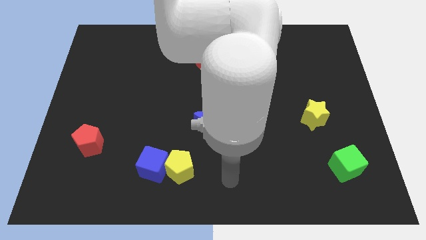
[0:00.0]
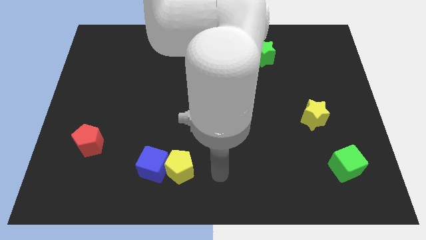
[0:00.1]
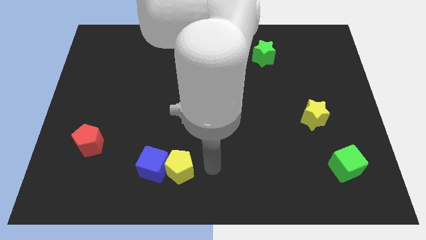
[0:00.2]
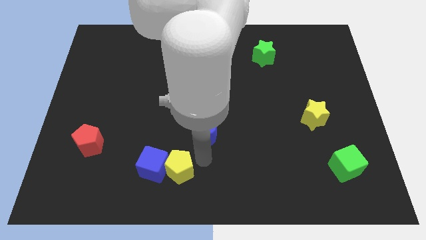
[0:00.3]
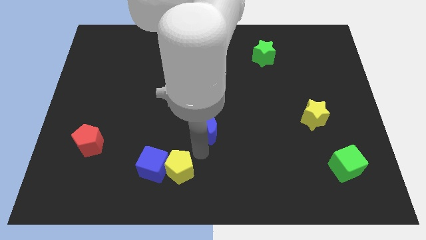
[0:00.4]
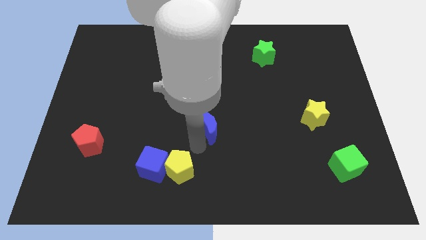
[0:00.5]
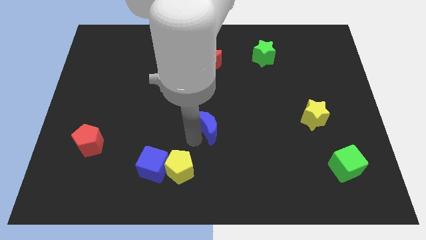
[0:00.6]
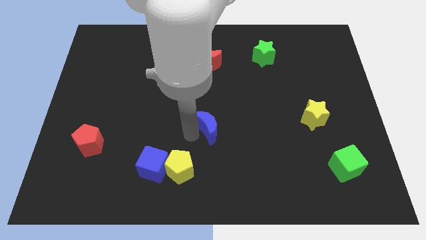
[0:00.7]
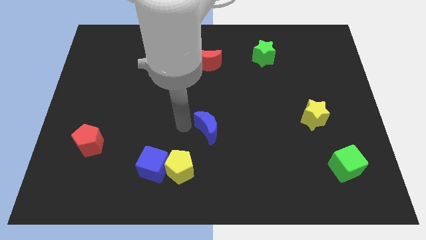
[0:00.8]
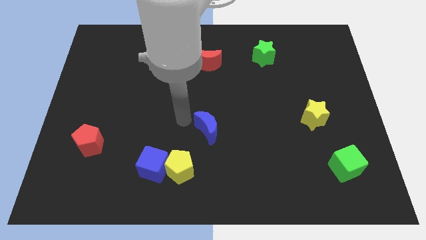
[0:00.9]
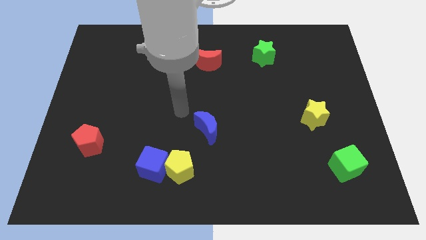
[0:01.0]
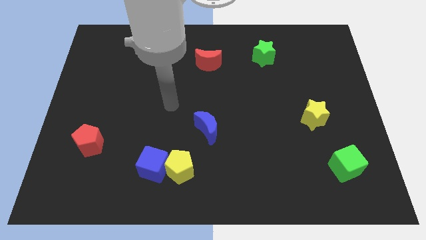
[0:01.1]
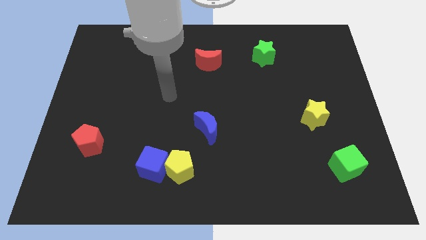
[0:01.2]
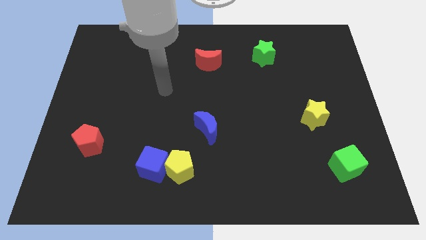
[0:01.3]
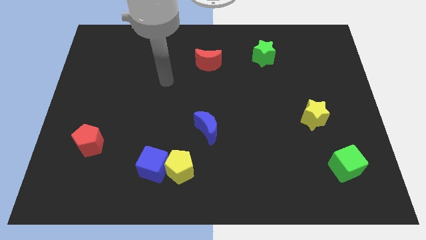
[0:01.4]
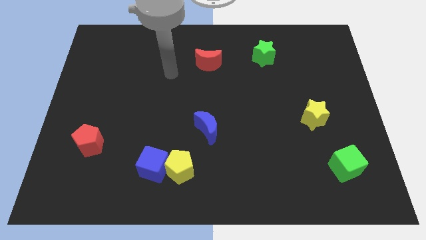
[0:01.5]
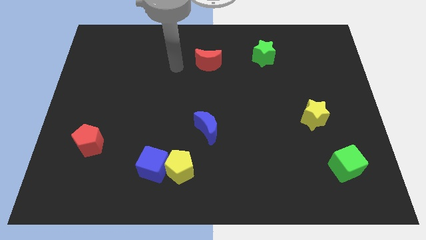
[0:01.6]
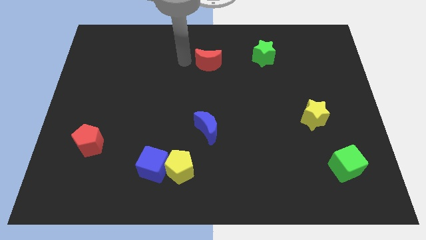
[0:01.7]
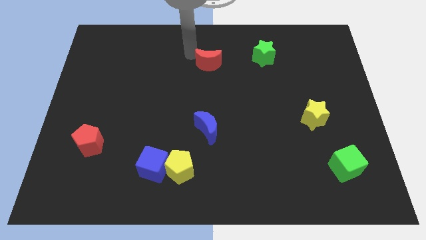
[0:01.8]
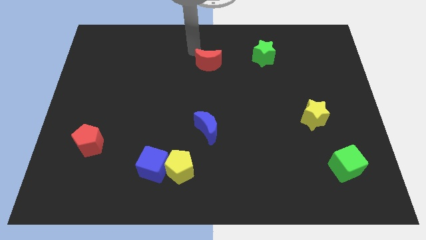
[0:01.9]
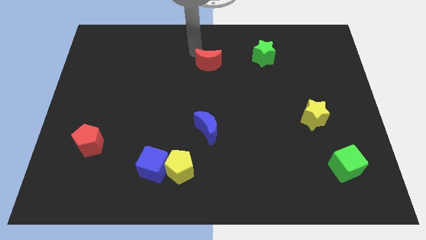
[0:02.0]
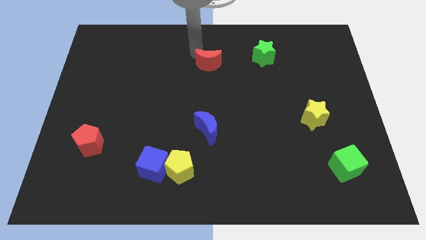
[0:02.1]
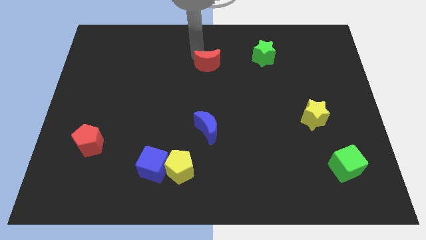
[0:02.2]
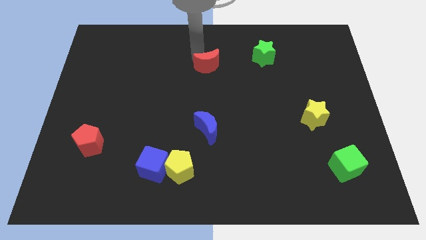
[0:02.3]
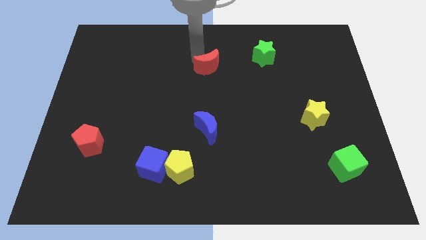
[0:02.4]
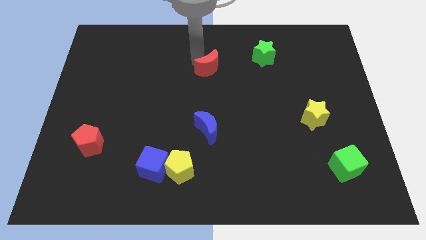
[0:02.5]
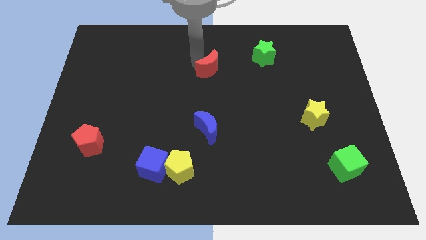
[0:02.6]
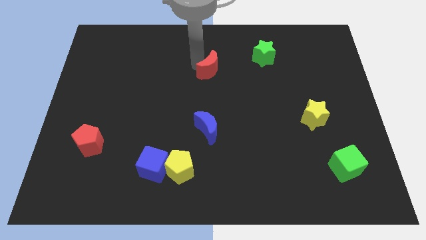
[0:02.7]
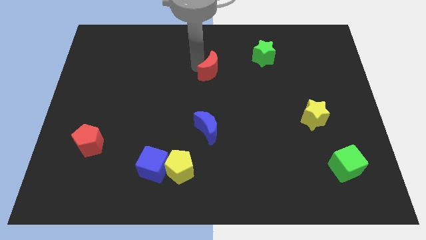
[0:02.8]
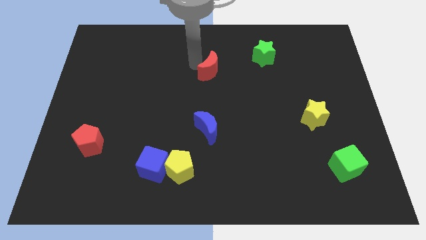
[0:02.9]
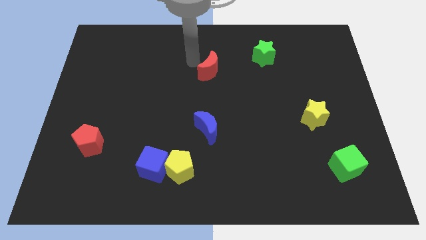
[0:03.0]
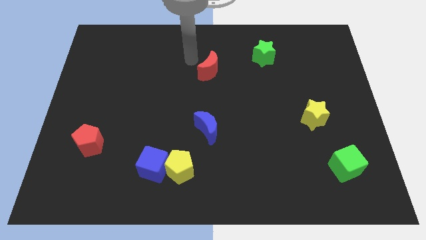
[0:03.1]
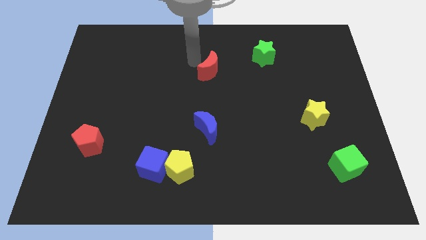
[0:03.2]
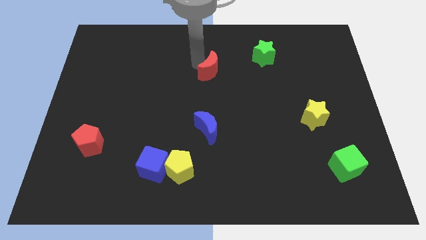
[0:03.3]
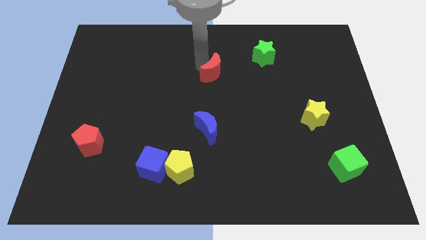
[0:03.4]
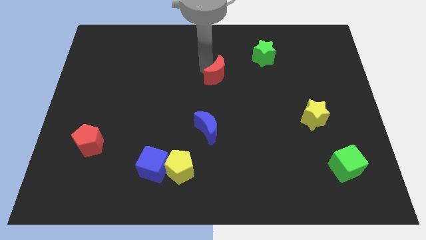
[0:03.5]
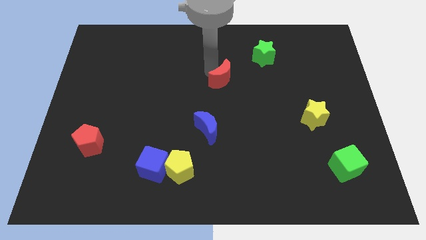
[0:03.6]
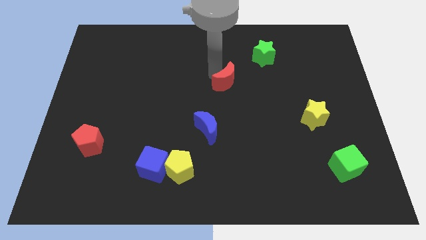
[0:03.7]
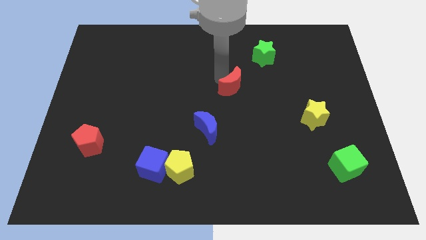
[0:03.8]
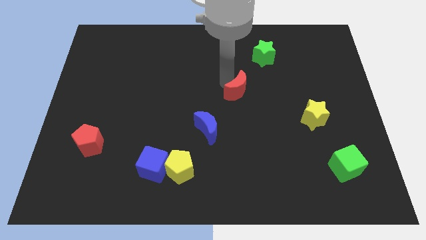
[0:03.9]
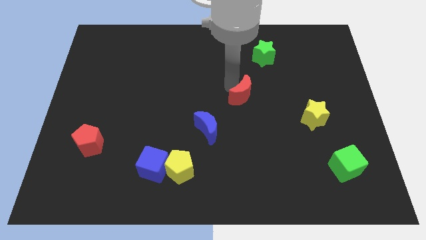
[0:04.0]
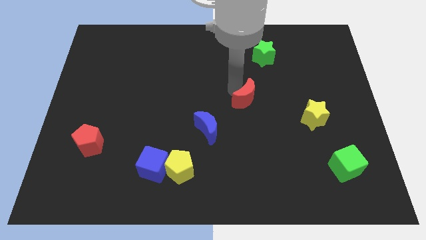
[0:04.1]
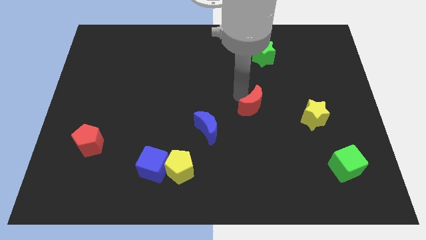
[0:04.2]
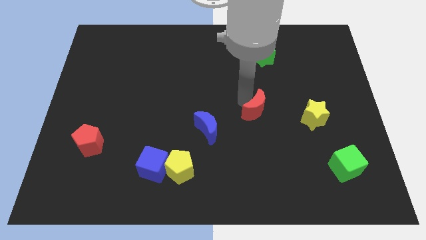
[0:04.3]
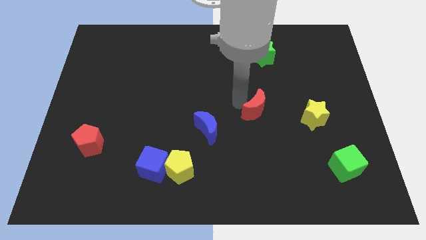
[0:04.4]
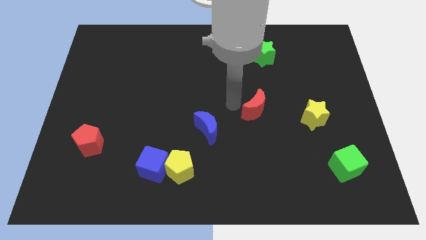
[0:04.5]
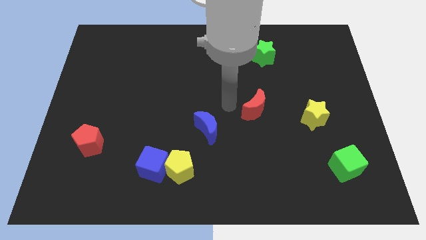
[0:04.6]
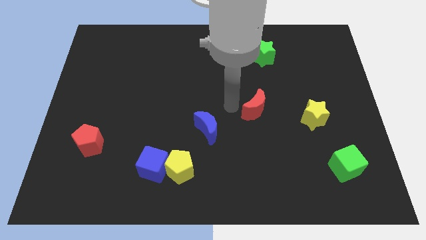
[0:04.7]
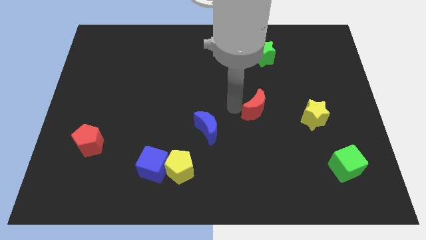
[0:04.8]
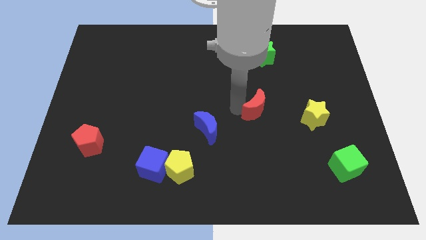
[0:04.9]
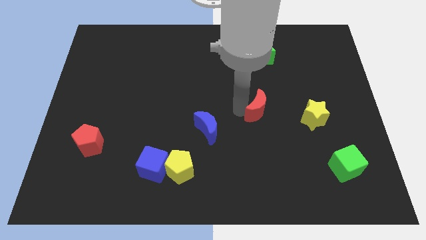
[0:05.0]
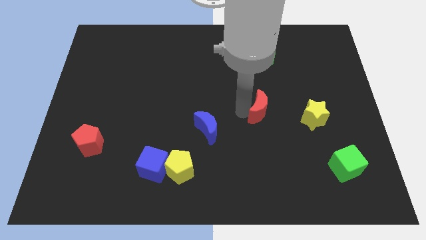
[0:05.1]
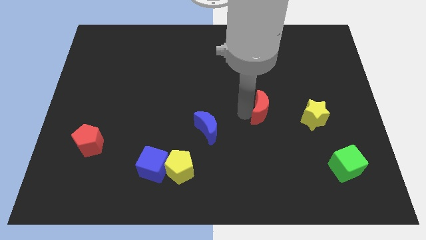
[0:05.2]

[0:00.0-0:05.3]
slide the red moon diagonally down and right

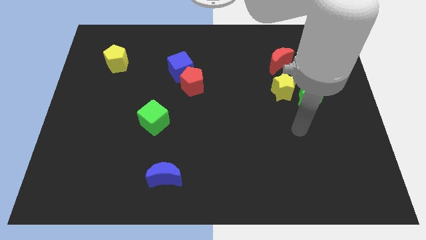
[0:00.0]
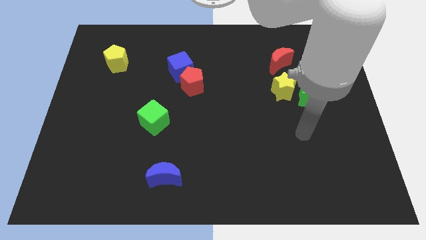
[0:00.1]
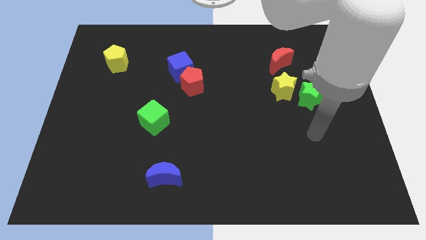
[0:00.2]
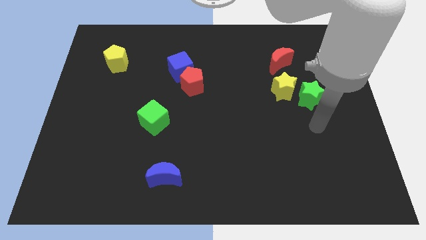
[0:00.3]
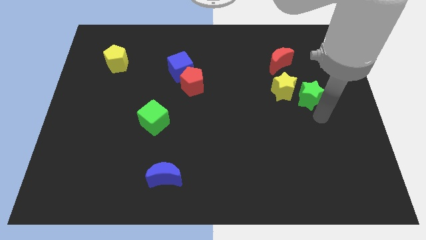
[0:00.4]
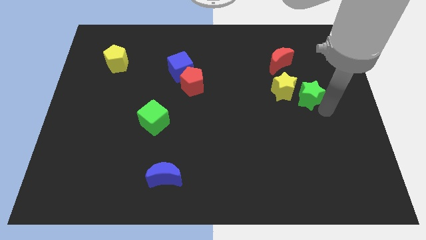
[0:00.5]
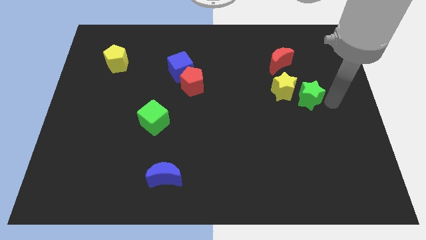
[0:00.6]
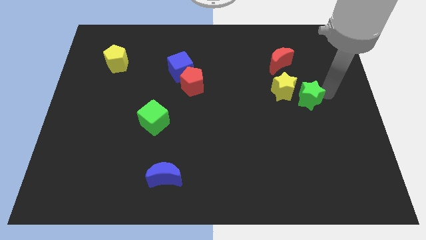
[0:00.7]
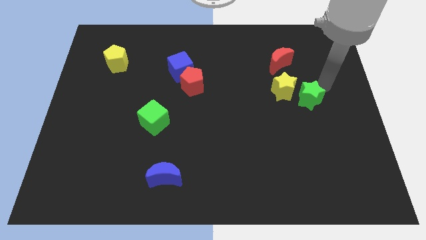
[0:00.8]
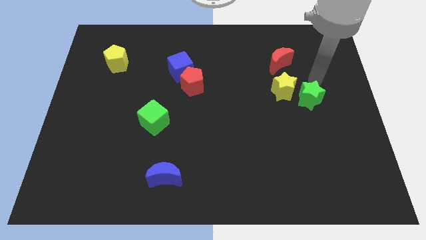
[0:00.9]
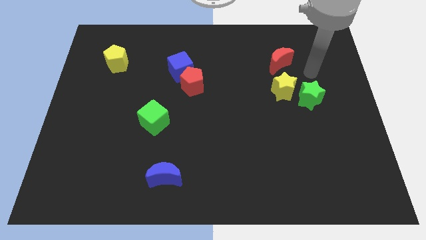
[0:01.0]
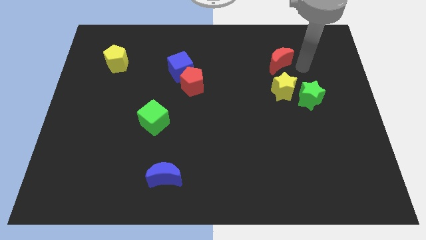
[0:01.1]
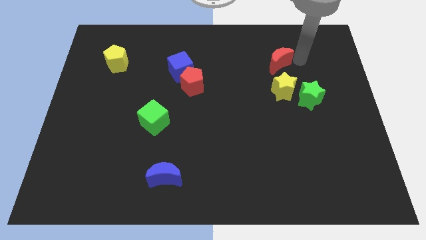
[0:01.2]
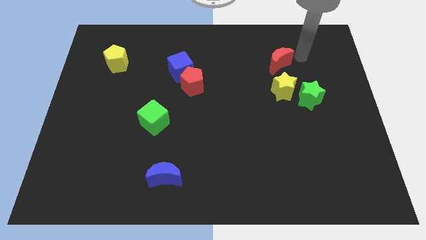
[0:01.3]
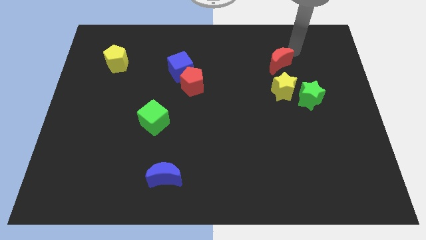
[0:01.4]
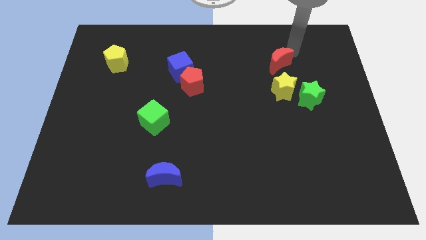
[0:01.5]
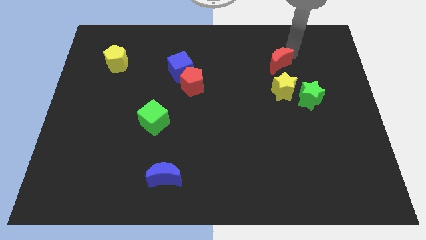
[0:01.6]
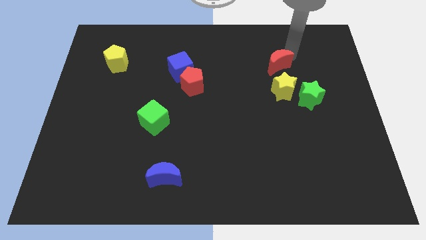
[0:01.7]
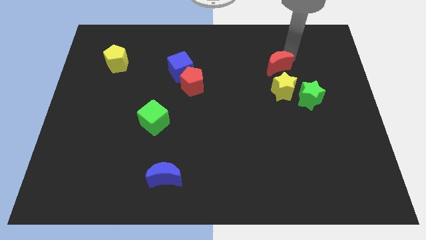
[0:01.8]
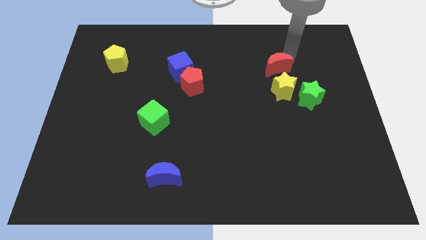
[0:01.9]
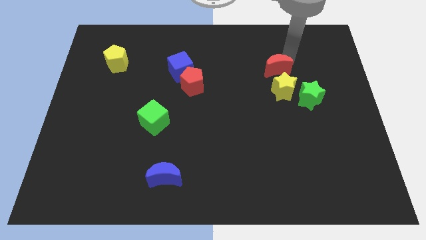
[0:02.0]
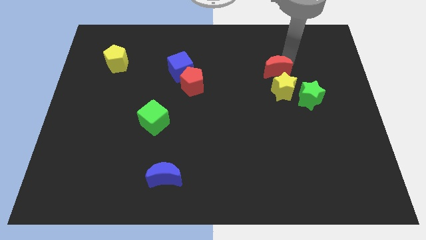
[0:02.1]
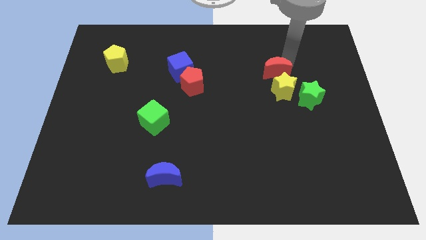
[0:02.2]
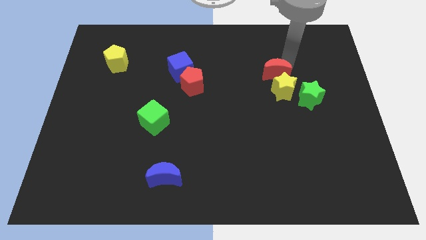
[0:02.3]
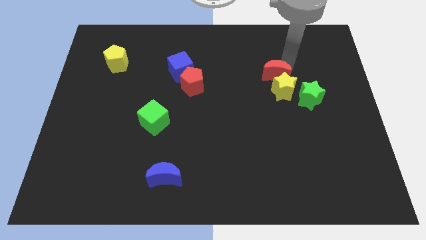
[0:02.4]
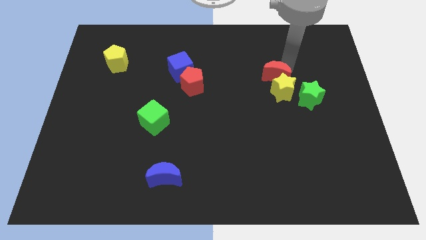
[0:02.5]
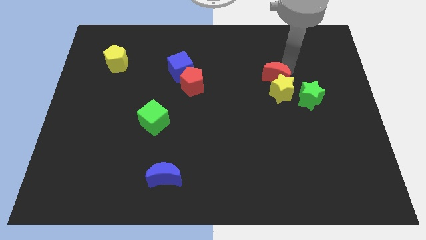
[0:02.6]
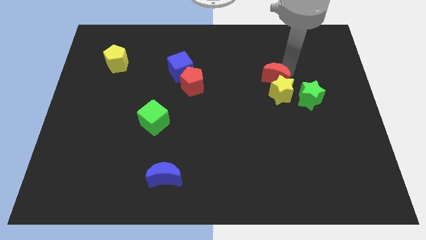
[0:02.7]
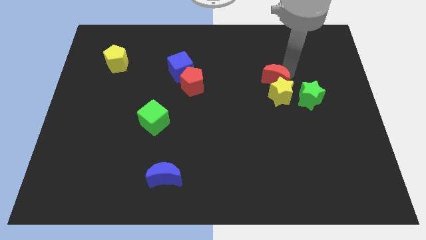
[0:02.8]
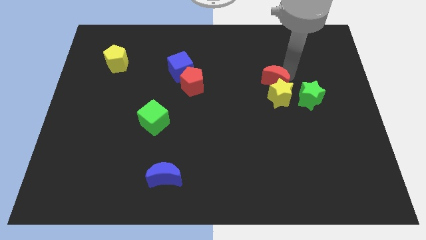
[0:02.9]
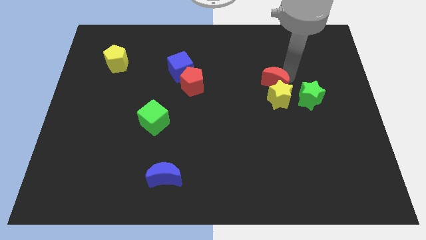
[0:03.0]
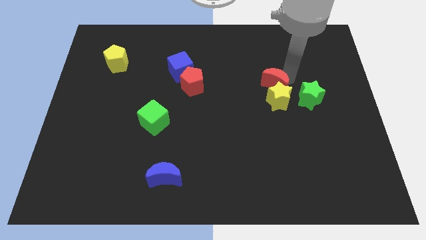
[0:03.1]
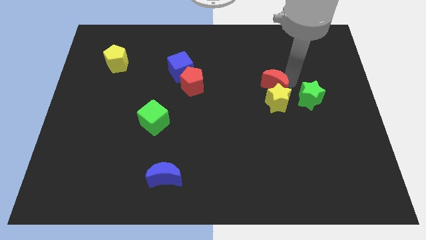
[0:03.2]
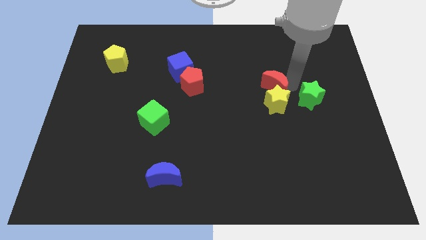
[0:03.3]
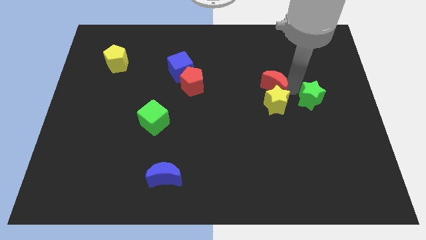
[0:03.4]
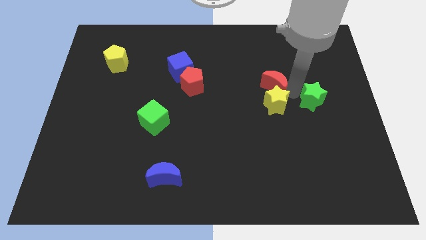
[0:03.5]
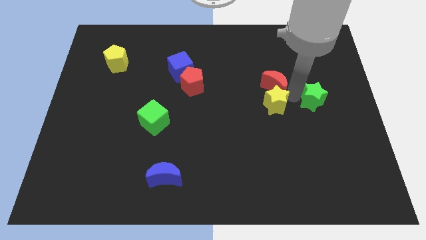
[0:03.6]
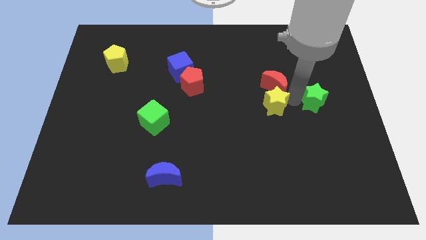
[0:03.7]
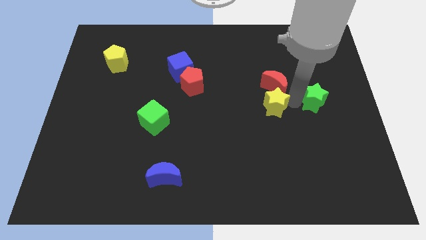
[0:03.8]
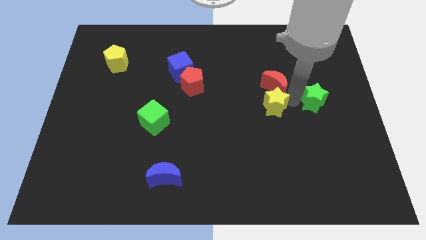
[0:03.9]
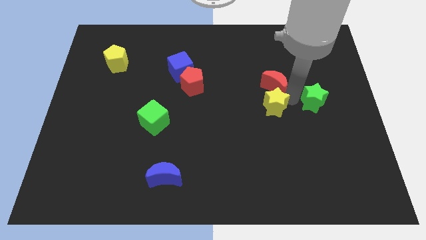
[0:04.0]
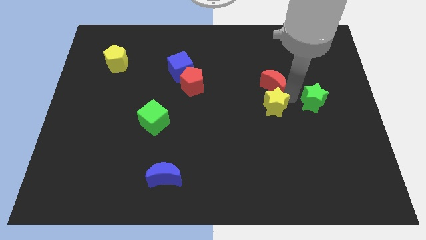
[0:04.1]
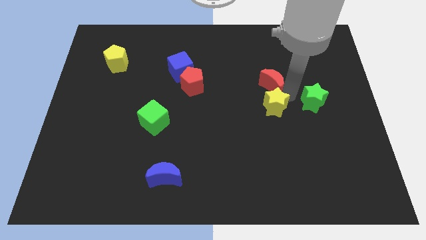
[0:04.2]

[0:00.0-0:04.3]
slide the red moon a little bit down and then left
